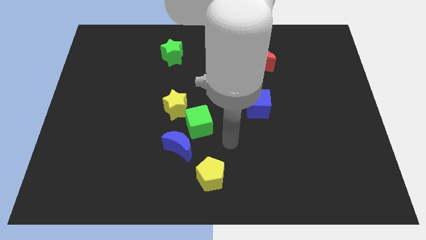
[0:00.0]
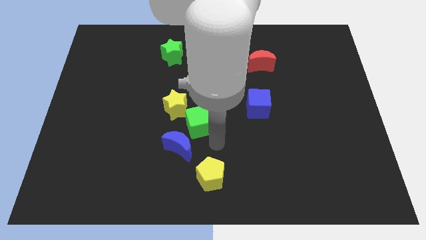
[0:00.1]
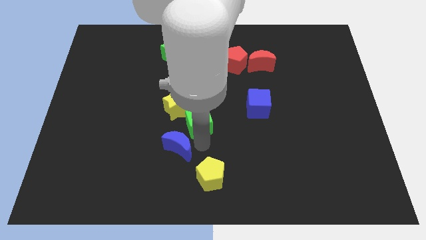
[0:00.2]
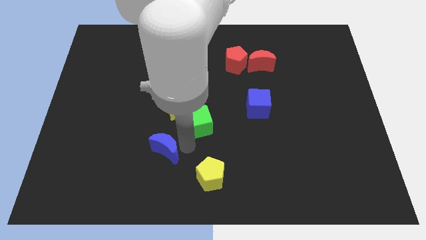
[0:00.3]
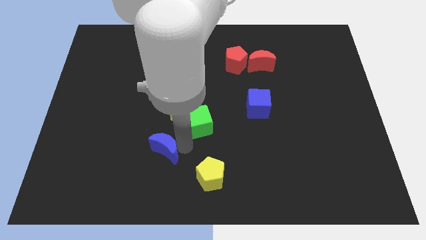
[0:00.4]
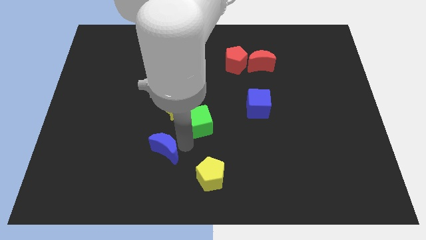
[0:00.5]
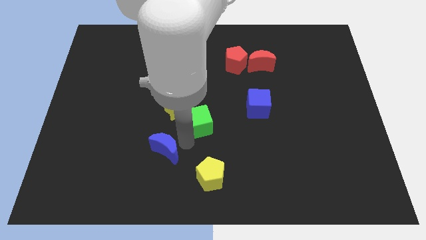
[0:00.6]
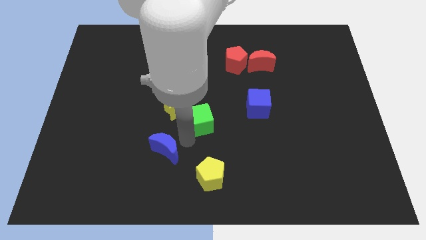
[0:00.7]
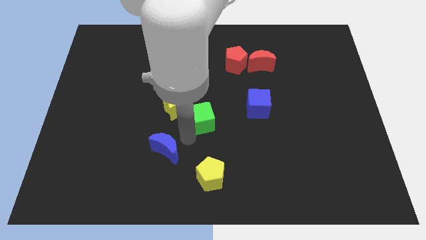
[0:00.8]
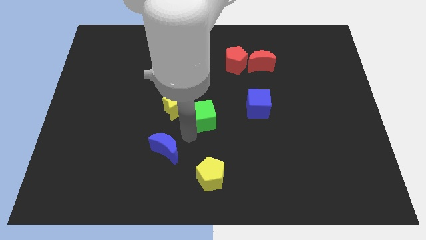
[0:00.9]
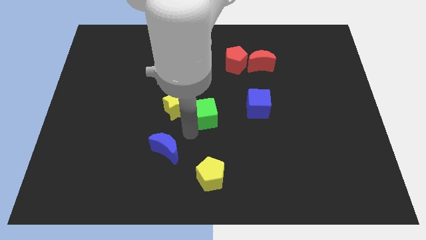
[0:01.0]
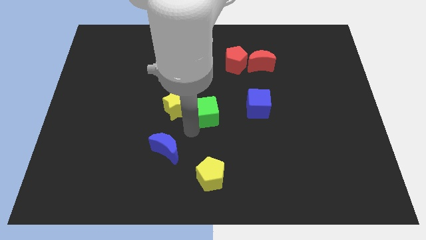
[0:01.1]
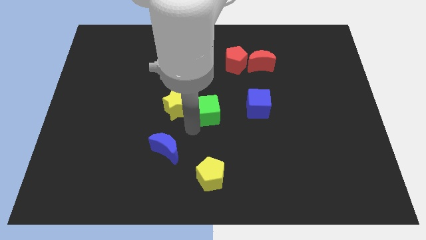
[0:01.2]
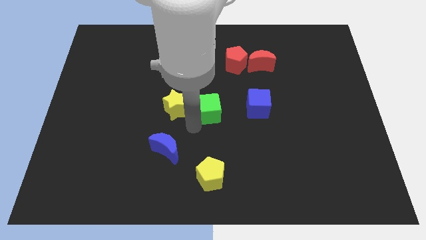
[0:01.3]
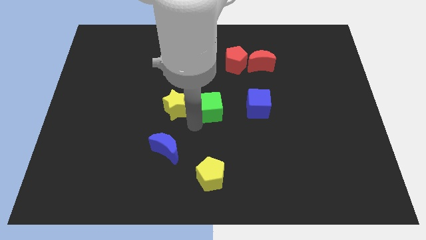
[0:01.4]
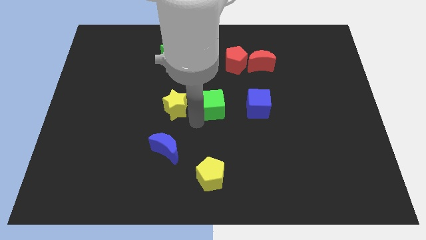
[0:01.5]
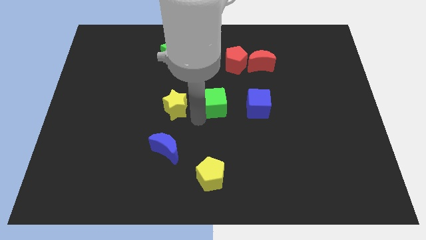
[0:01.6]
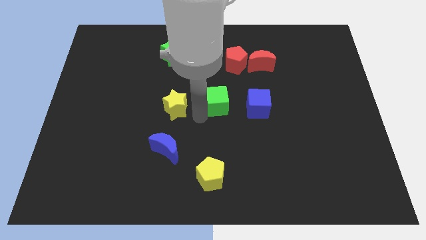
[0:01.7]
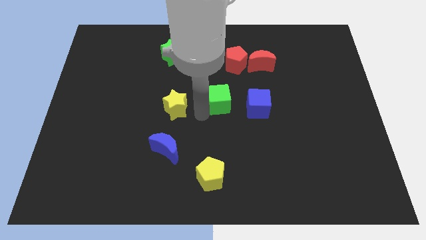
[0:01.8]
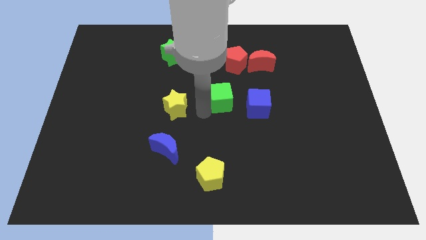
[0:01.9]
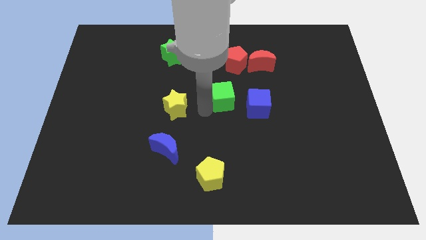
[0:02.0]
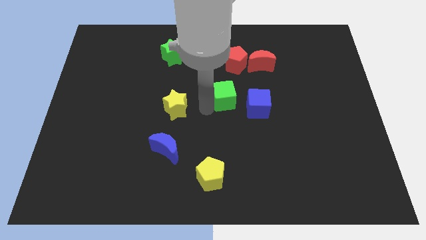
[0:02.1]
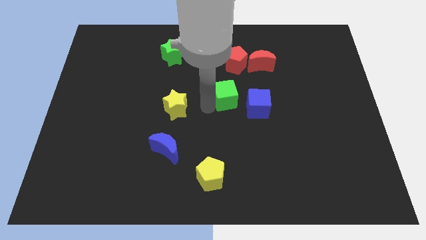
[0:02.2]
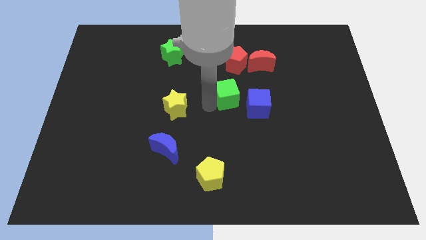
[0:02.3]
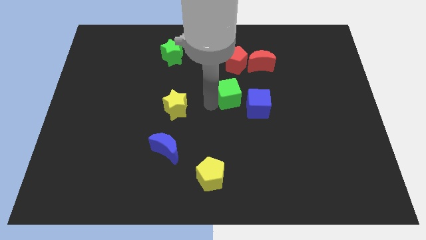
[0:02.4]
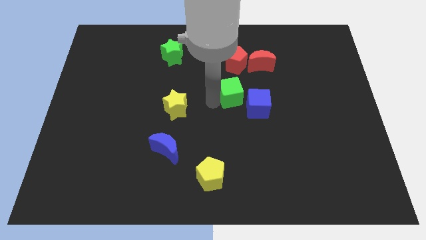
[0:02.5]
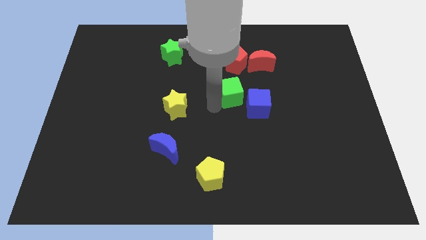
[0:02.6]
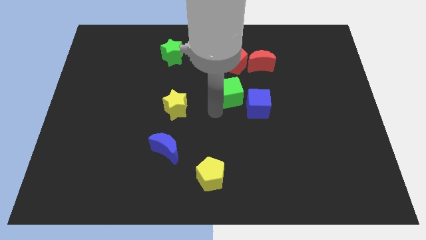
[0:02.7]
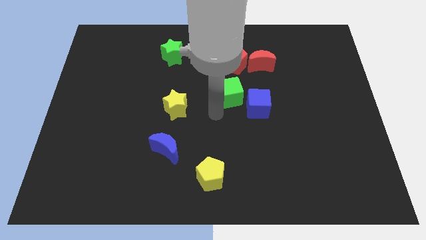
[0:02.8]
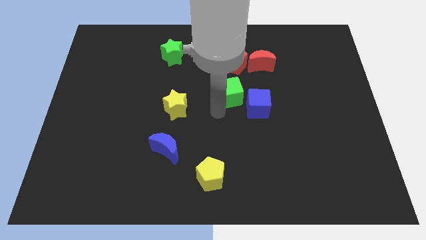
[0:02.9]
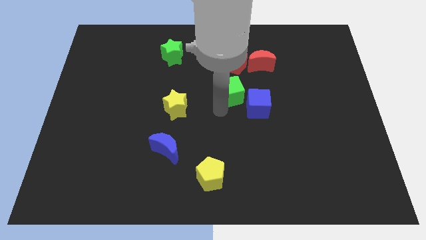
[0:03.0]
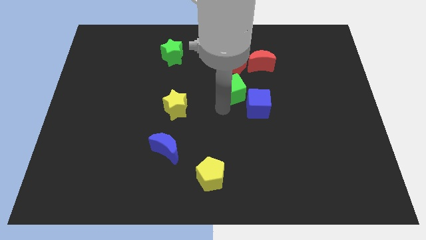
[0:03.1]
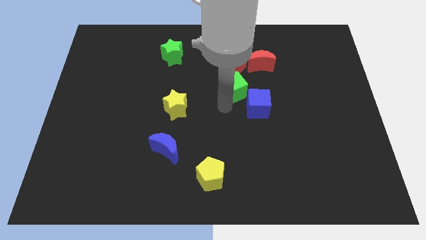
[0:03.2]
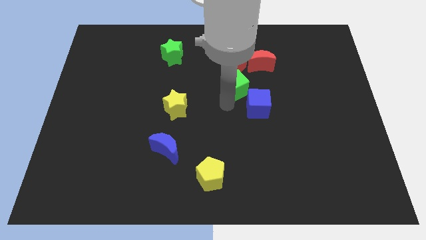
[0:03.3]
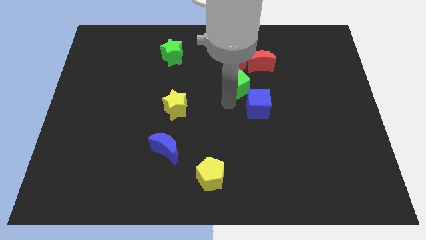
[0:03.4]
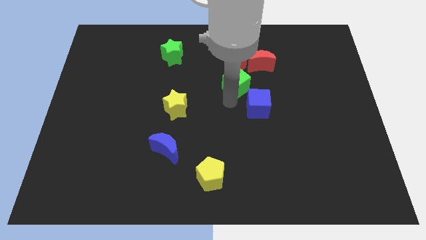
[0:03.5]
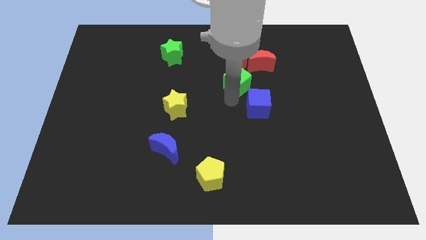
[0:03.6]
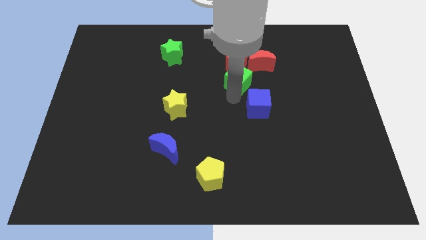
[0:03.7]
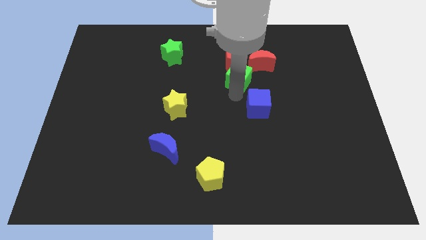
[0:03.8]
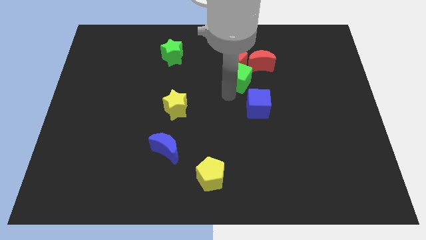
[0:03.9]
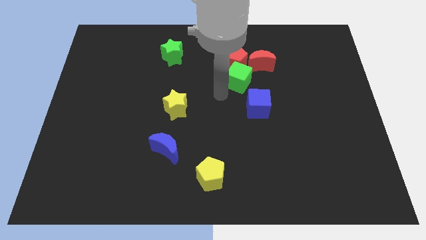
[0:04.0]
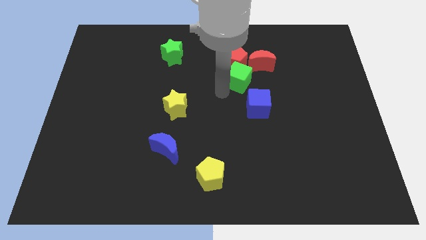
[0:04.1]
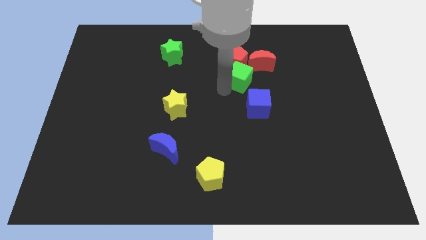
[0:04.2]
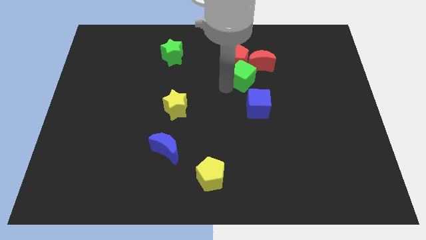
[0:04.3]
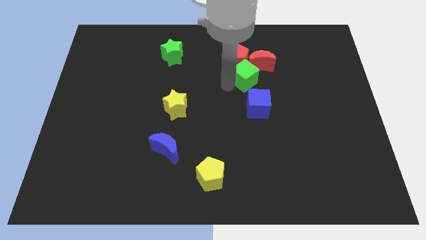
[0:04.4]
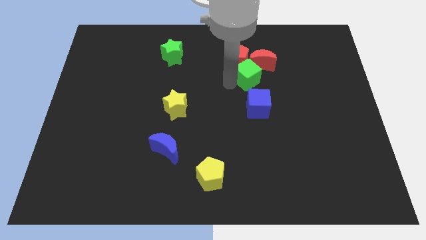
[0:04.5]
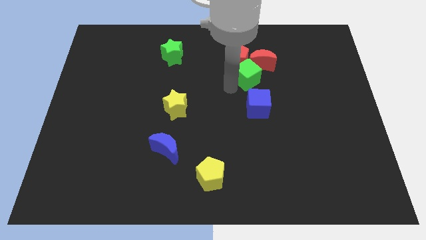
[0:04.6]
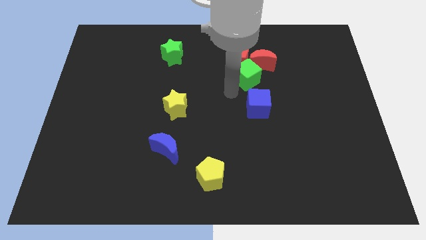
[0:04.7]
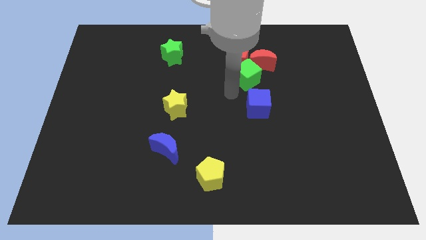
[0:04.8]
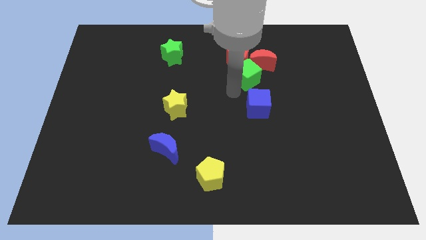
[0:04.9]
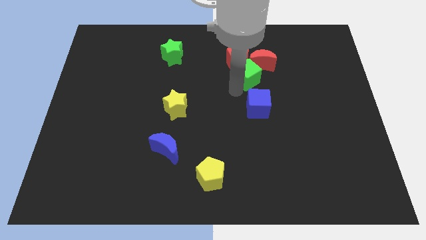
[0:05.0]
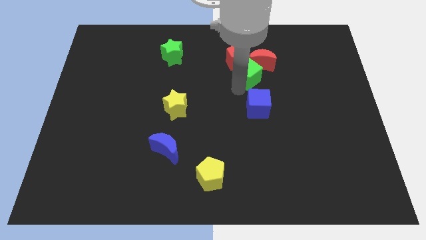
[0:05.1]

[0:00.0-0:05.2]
put the green cube next to the red moon

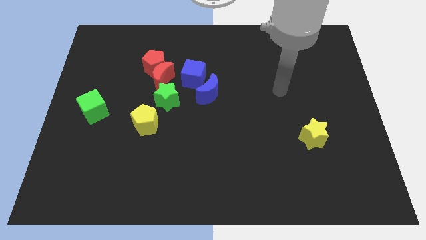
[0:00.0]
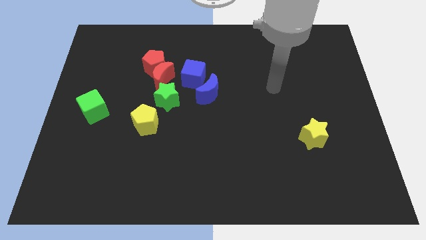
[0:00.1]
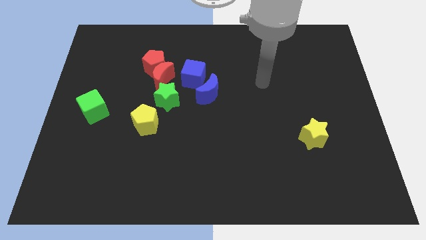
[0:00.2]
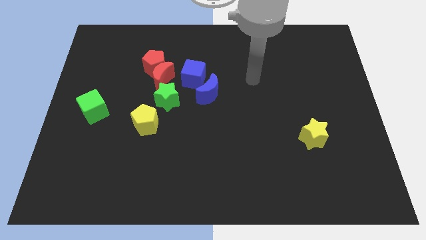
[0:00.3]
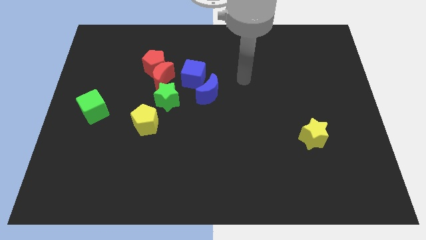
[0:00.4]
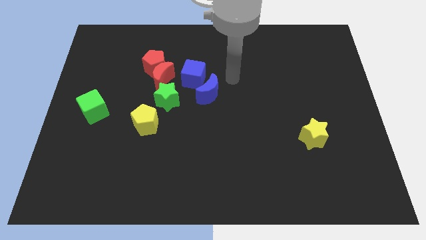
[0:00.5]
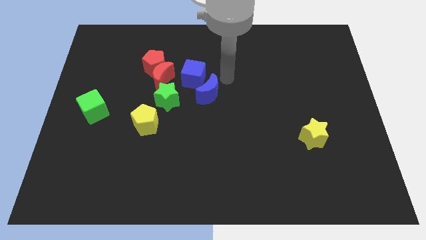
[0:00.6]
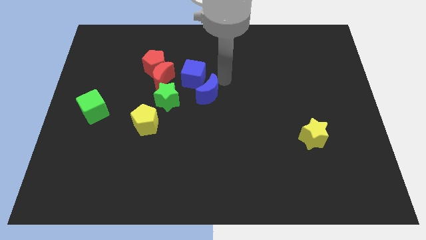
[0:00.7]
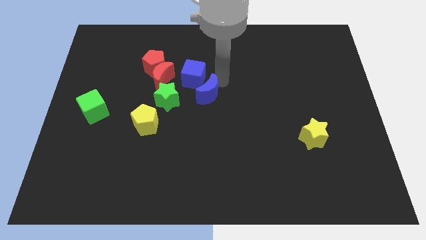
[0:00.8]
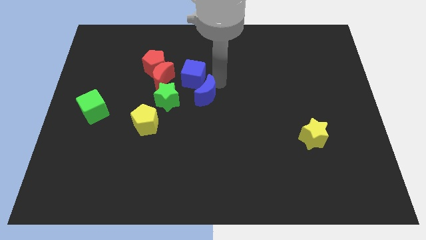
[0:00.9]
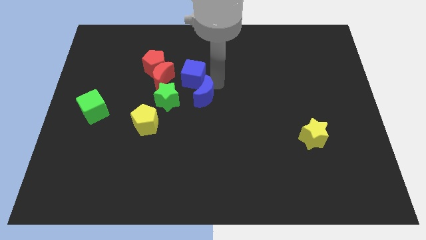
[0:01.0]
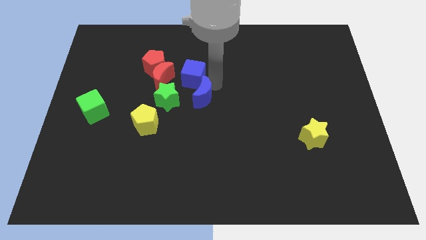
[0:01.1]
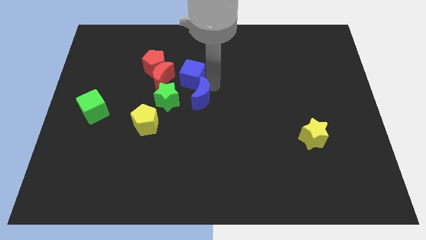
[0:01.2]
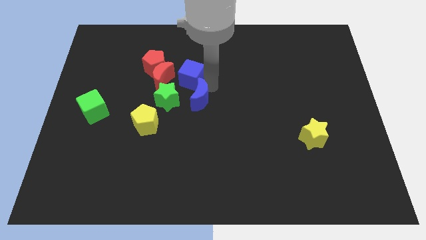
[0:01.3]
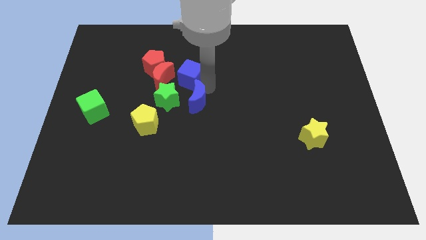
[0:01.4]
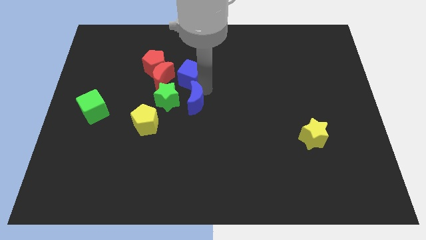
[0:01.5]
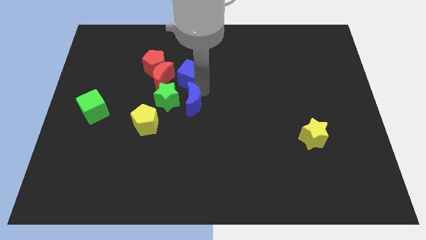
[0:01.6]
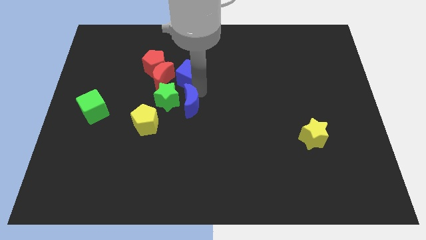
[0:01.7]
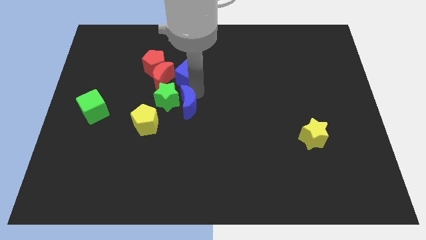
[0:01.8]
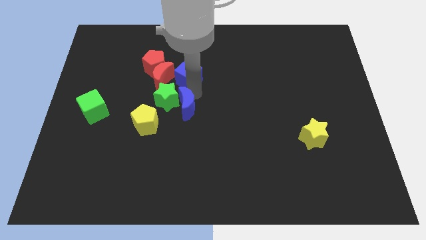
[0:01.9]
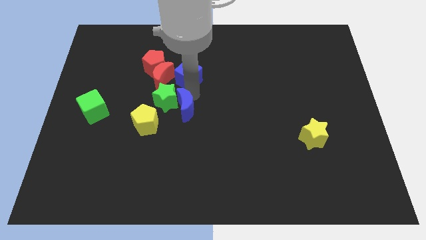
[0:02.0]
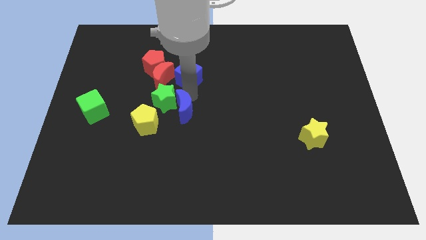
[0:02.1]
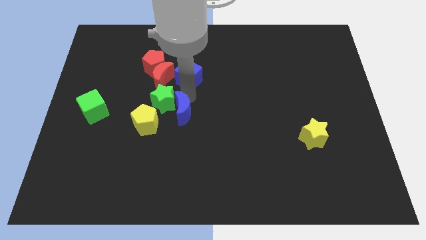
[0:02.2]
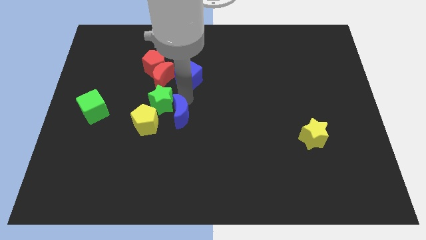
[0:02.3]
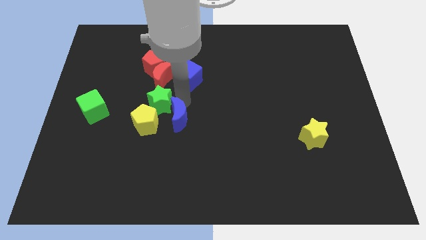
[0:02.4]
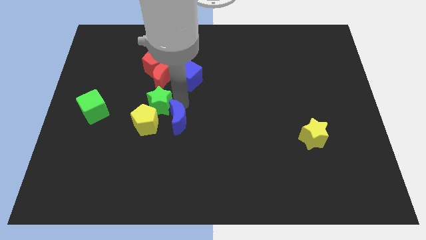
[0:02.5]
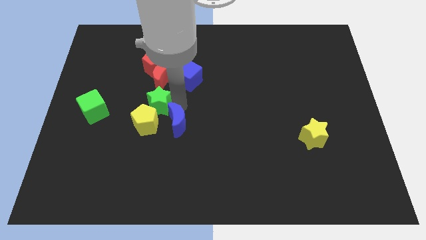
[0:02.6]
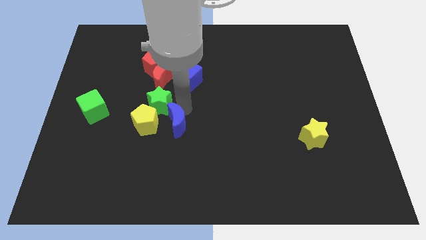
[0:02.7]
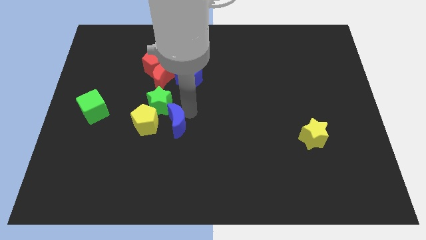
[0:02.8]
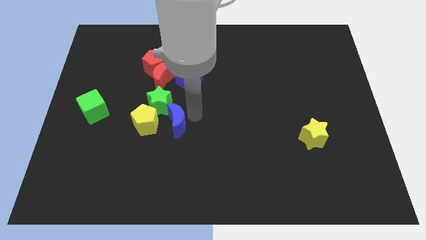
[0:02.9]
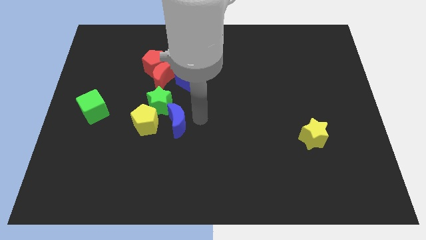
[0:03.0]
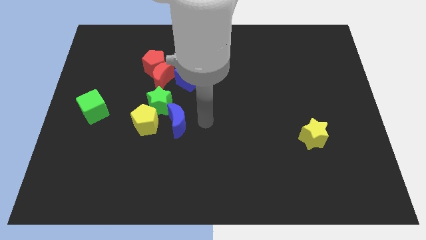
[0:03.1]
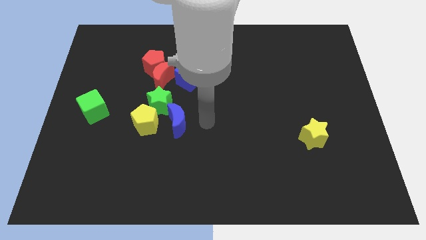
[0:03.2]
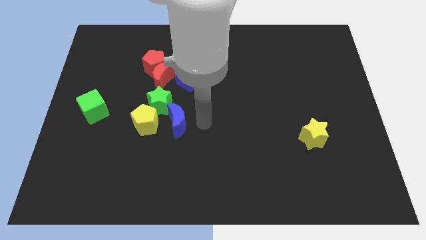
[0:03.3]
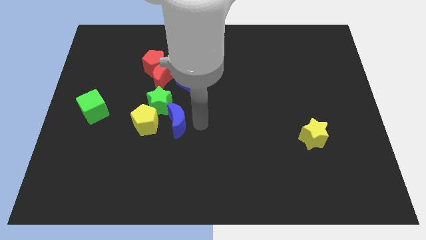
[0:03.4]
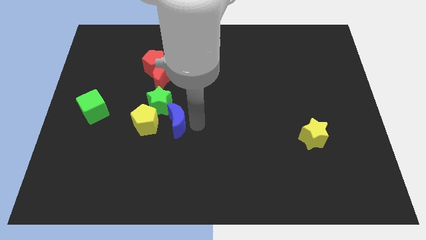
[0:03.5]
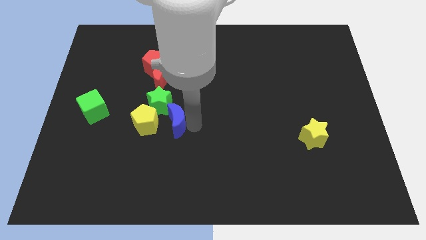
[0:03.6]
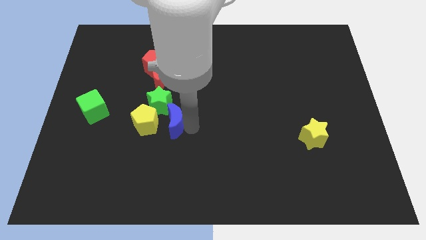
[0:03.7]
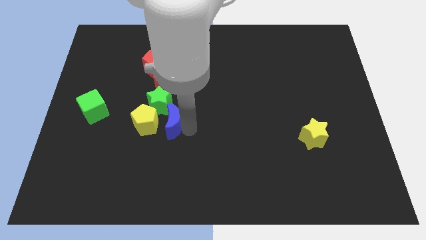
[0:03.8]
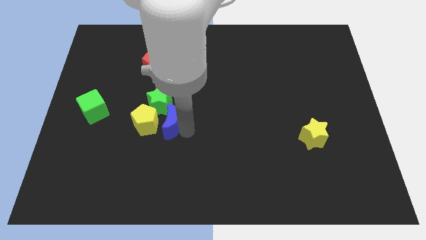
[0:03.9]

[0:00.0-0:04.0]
put the blue moon next to the yellow pentagon
